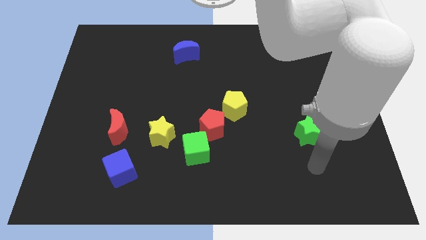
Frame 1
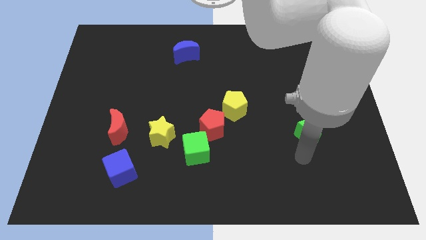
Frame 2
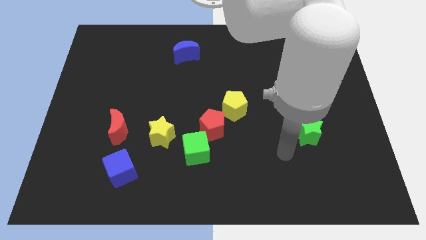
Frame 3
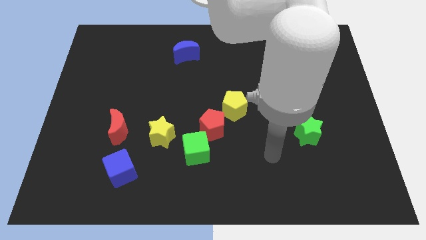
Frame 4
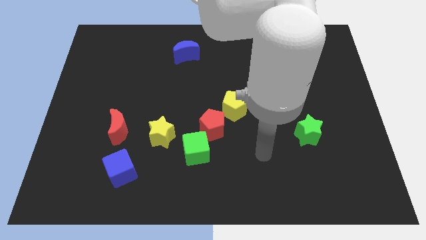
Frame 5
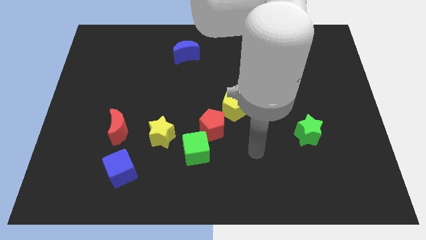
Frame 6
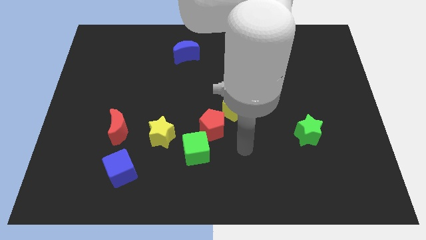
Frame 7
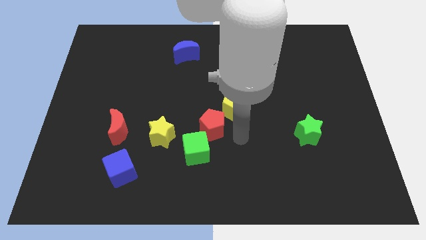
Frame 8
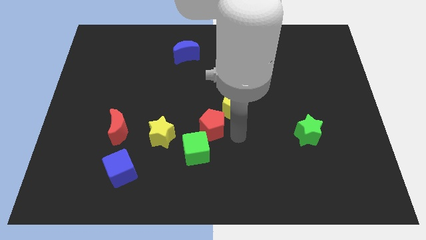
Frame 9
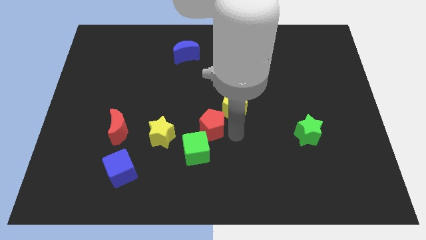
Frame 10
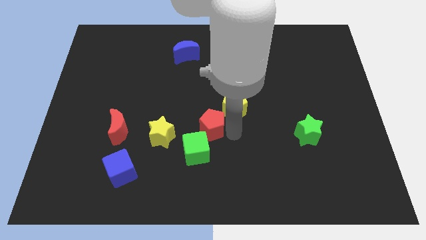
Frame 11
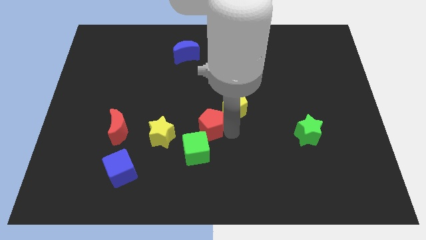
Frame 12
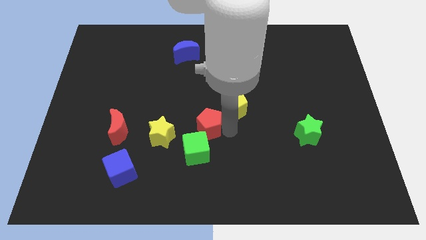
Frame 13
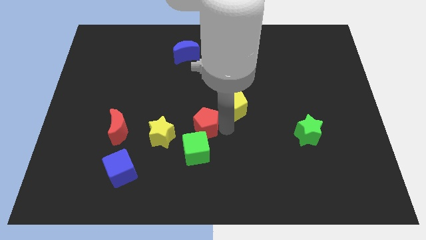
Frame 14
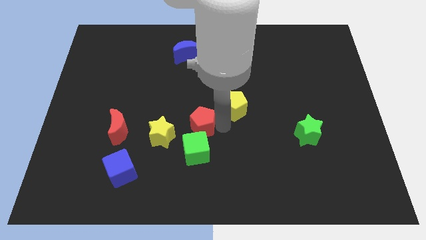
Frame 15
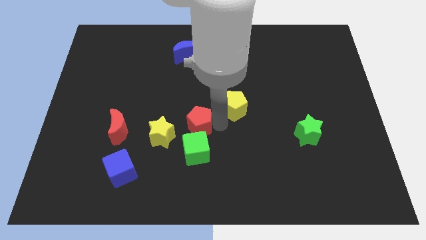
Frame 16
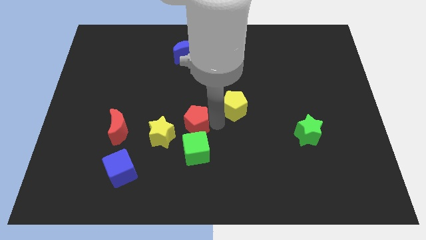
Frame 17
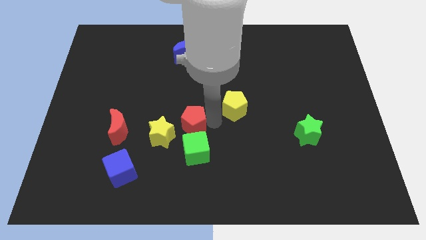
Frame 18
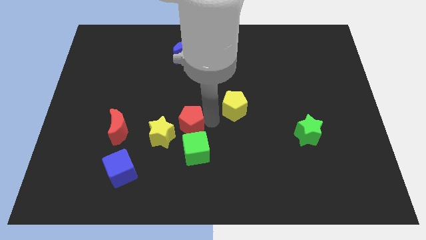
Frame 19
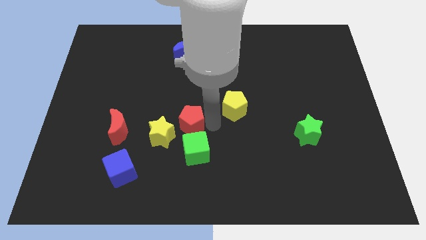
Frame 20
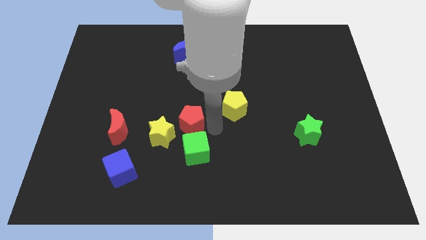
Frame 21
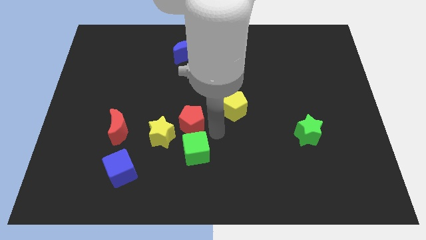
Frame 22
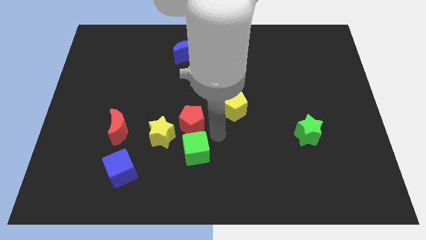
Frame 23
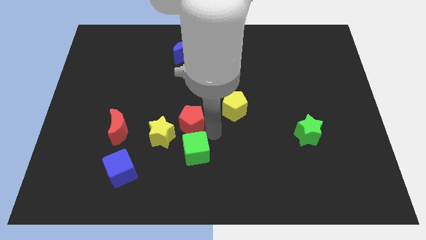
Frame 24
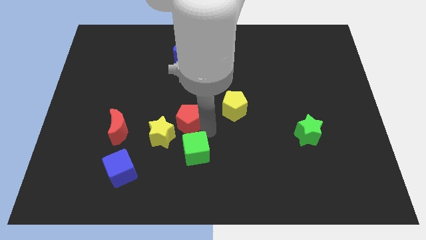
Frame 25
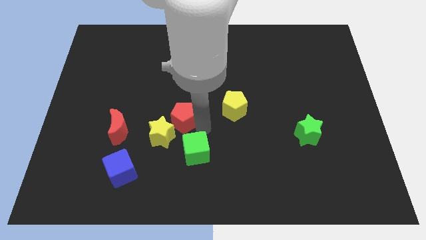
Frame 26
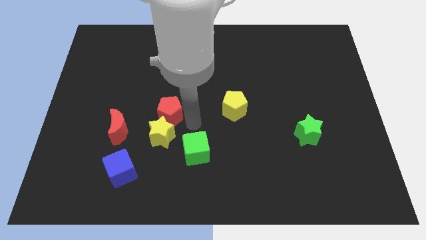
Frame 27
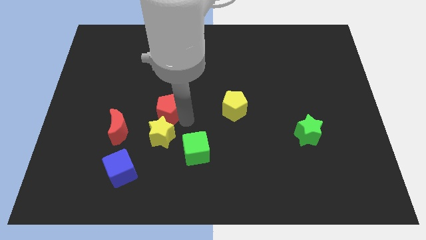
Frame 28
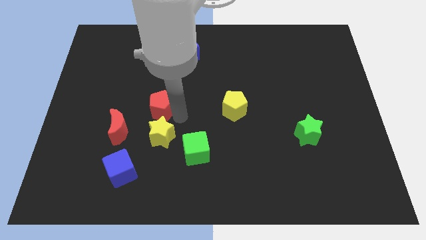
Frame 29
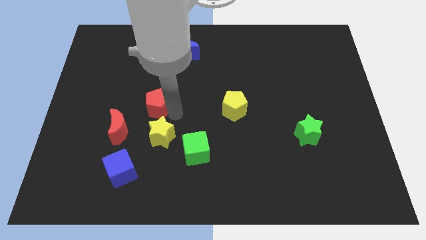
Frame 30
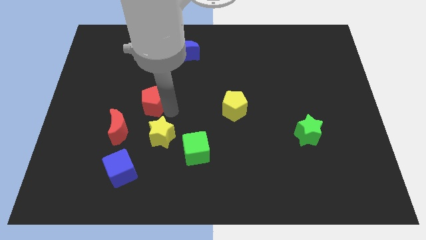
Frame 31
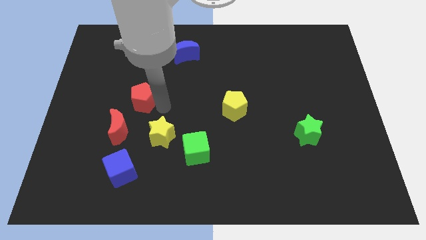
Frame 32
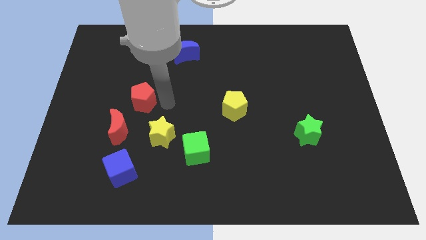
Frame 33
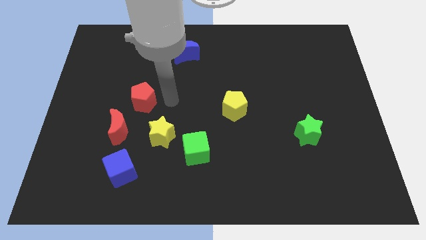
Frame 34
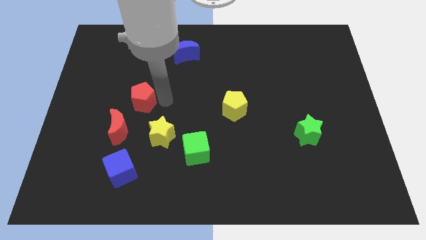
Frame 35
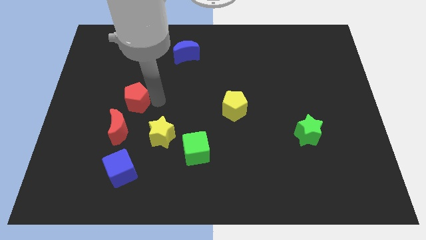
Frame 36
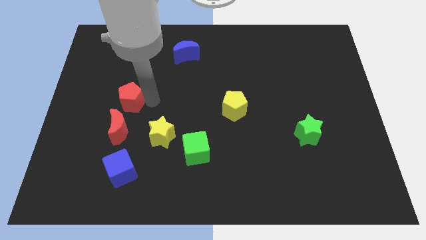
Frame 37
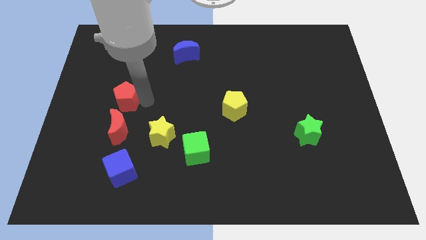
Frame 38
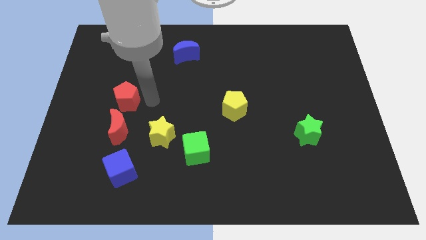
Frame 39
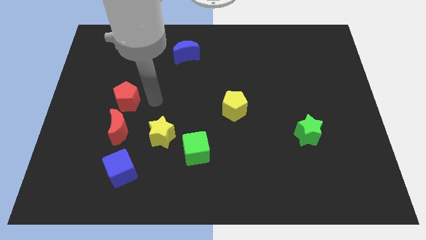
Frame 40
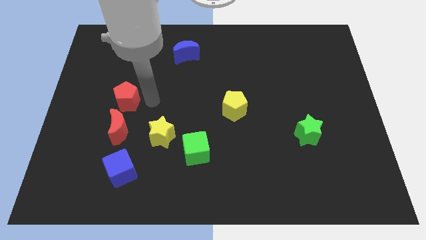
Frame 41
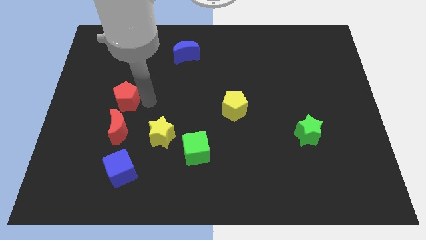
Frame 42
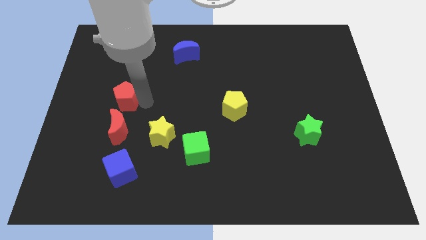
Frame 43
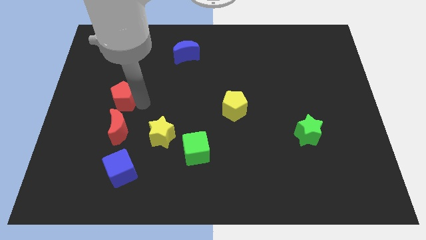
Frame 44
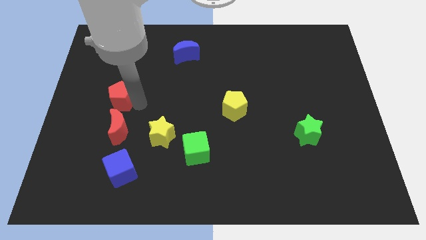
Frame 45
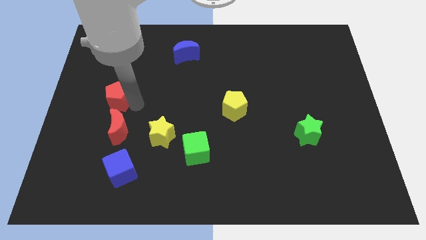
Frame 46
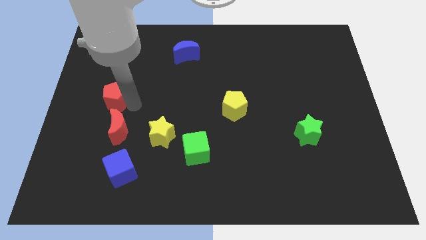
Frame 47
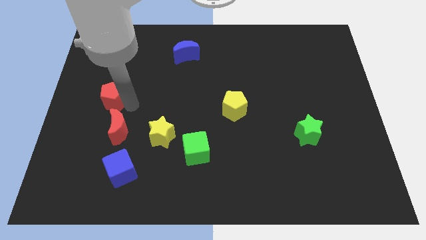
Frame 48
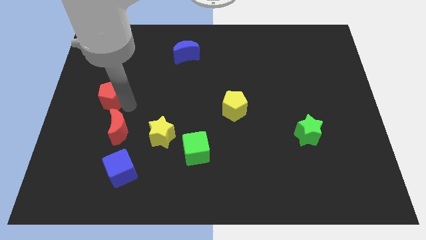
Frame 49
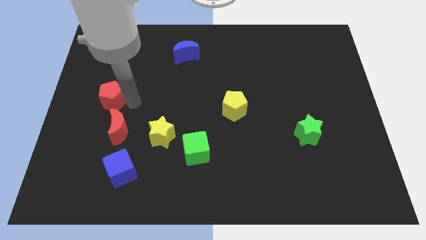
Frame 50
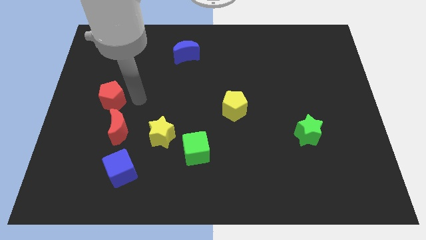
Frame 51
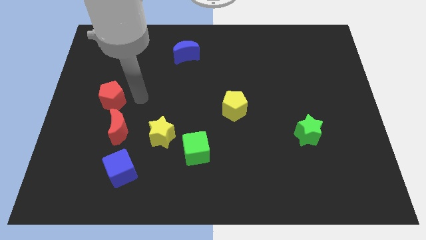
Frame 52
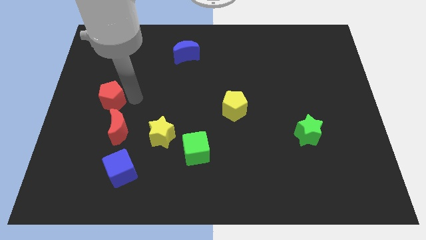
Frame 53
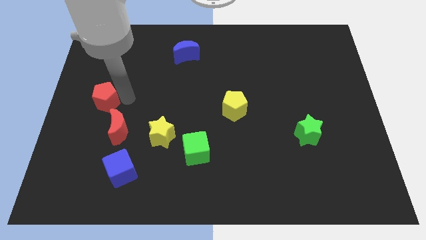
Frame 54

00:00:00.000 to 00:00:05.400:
push the red pentagon to the left side of the board
